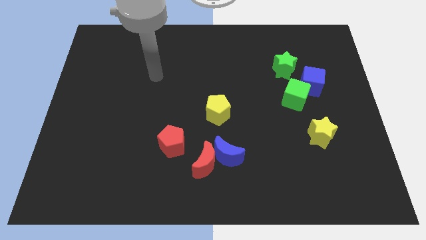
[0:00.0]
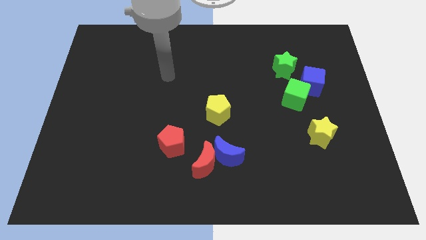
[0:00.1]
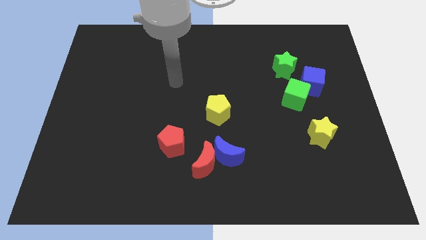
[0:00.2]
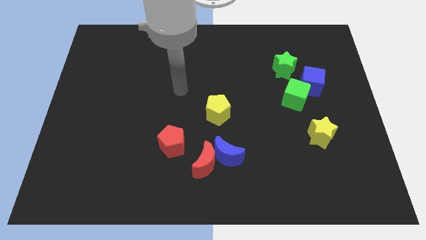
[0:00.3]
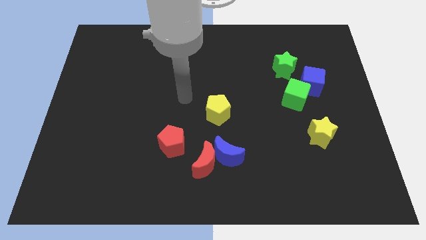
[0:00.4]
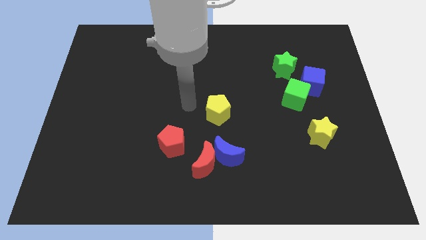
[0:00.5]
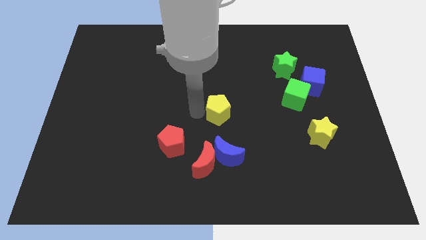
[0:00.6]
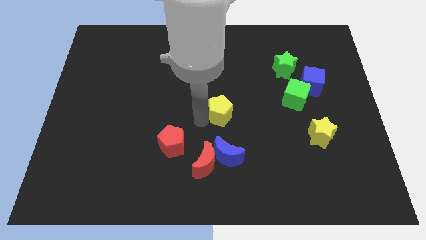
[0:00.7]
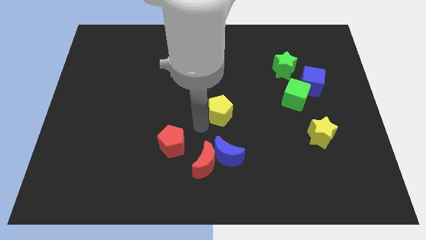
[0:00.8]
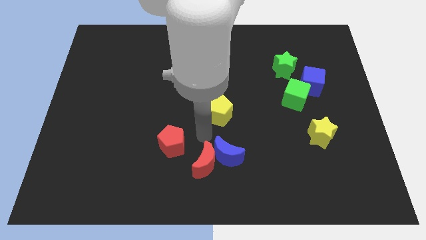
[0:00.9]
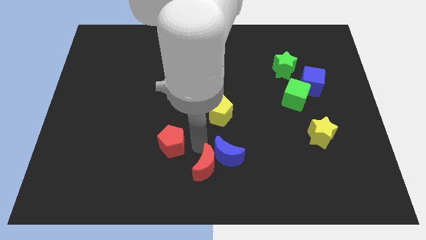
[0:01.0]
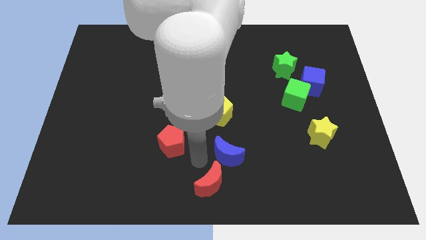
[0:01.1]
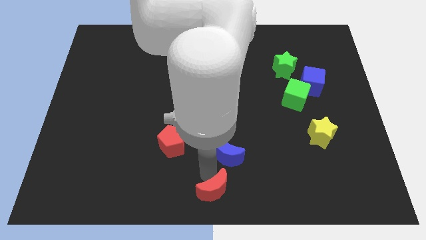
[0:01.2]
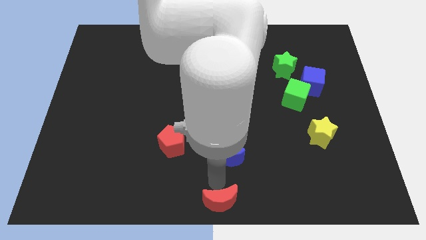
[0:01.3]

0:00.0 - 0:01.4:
move the blue moon away from the red moon

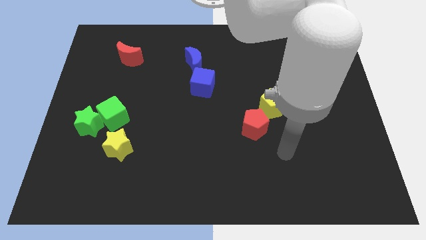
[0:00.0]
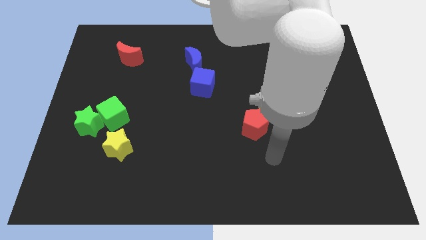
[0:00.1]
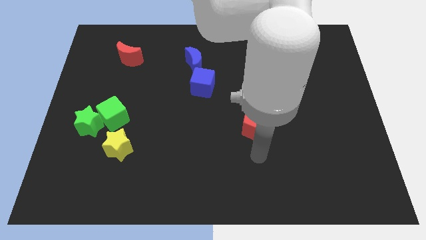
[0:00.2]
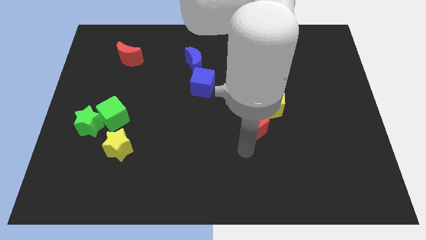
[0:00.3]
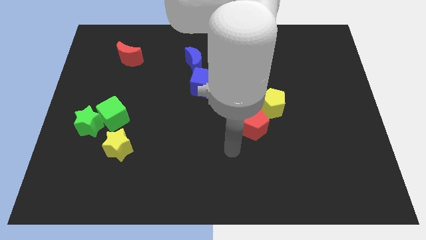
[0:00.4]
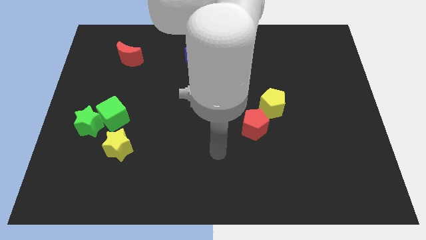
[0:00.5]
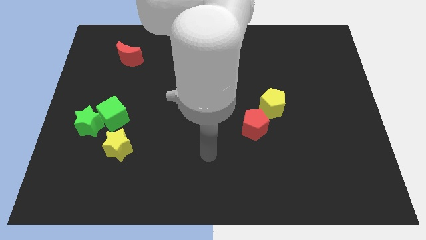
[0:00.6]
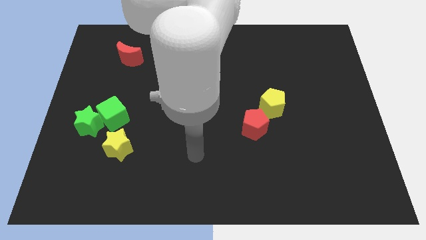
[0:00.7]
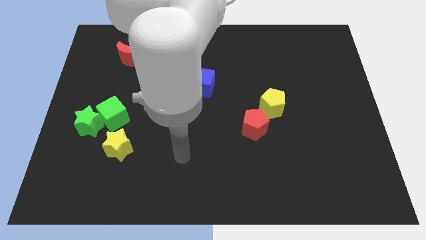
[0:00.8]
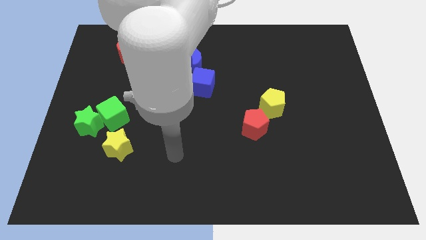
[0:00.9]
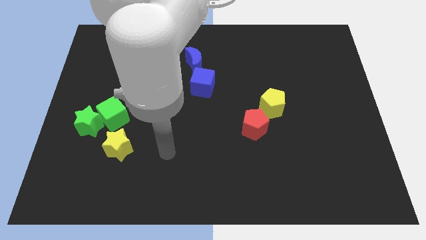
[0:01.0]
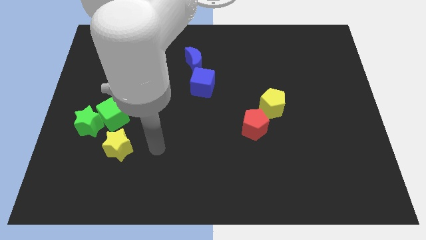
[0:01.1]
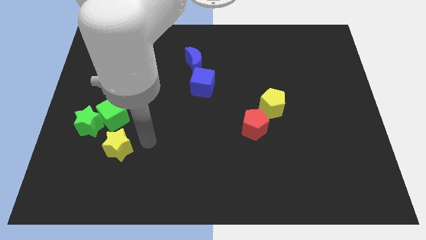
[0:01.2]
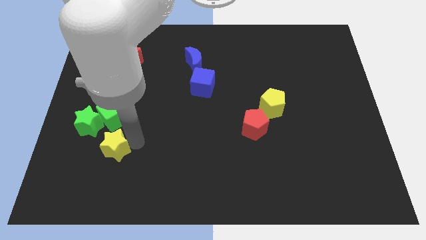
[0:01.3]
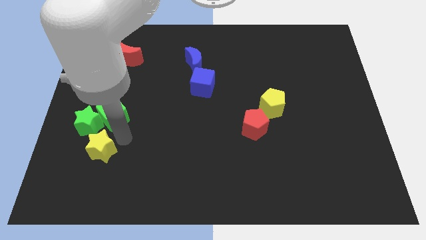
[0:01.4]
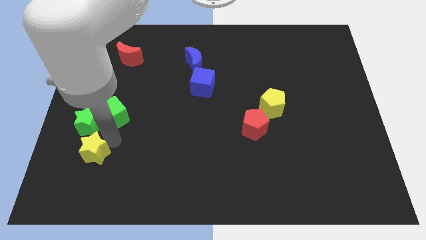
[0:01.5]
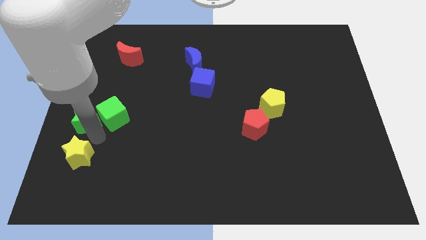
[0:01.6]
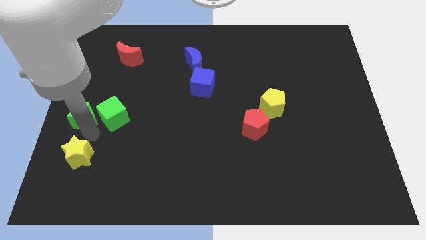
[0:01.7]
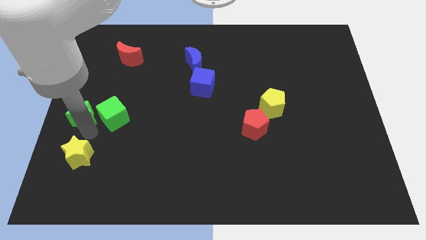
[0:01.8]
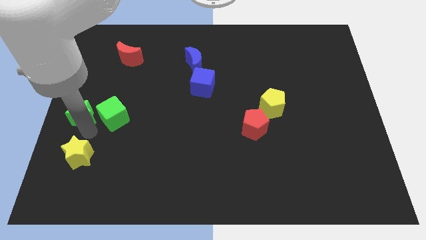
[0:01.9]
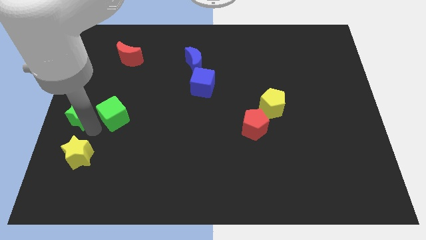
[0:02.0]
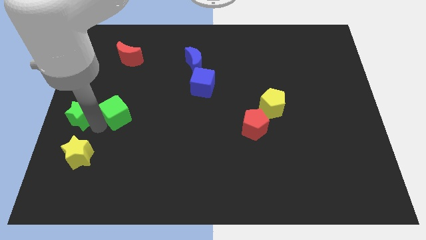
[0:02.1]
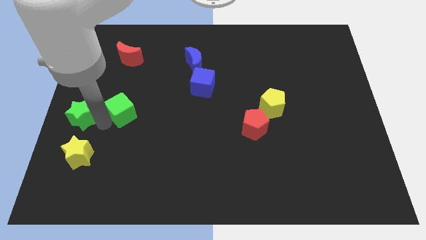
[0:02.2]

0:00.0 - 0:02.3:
pull the green cube apart from the green star and yellow star

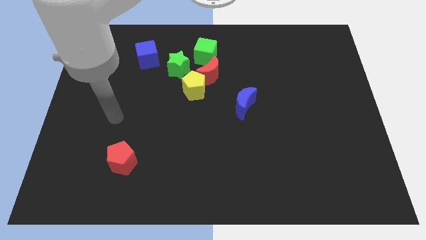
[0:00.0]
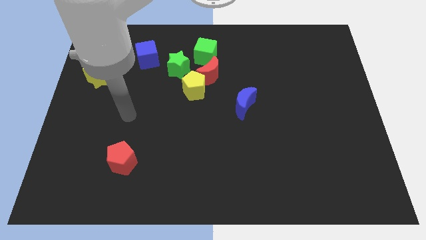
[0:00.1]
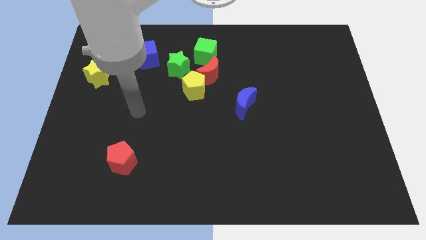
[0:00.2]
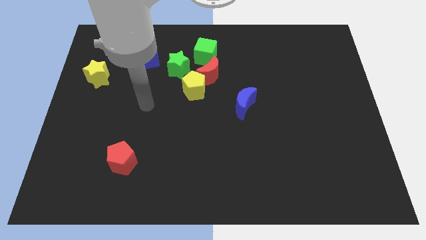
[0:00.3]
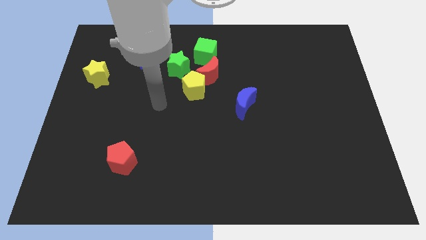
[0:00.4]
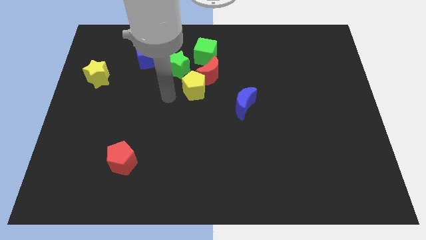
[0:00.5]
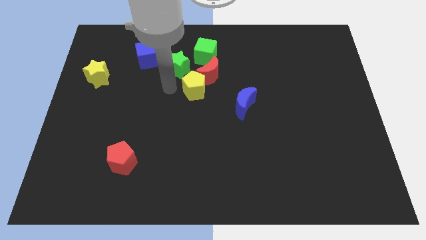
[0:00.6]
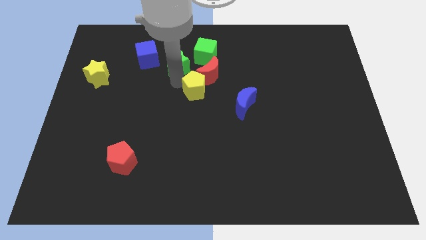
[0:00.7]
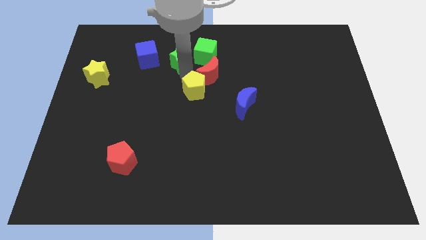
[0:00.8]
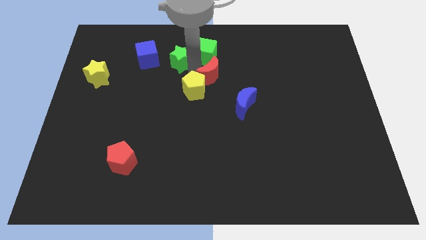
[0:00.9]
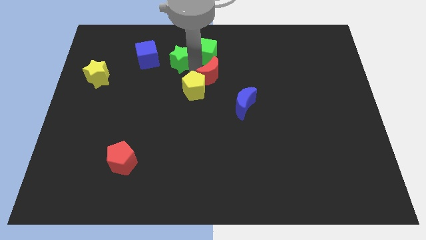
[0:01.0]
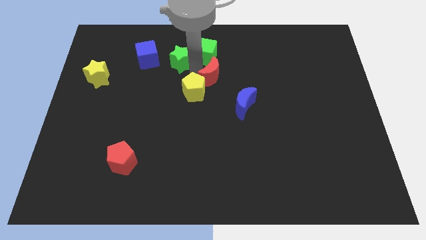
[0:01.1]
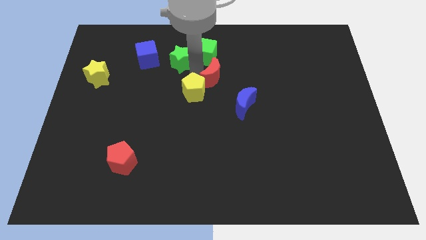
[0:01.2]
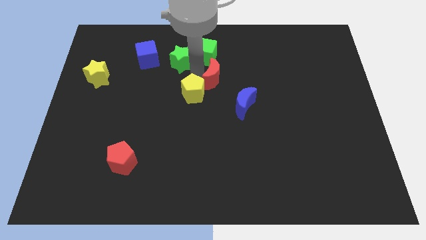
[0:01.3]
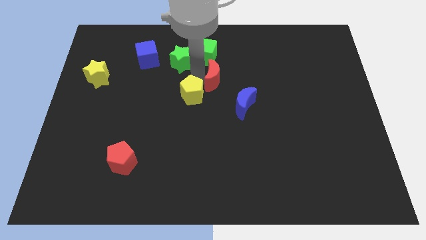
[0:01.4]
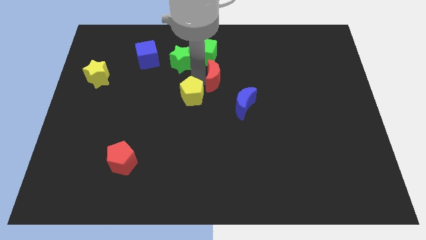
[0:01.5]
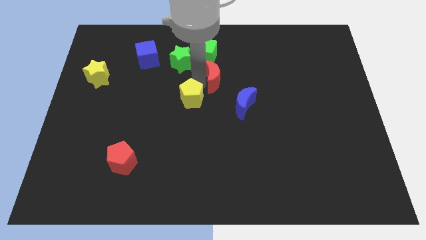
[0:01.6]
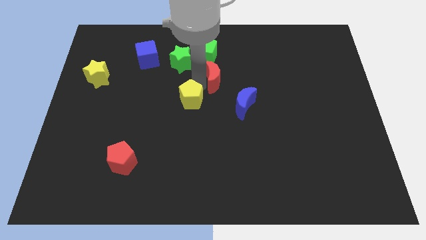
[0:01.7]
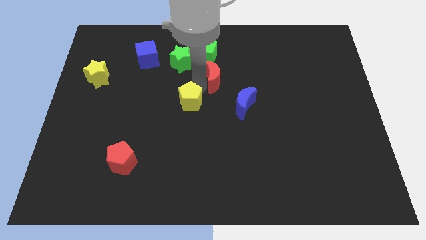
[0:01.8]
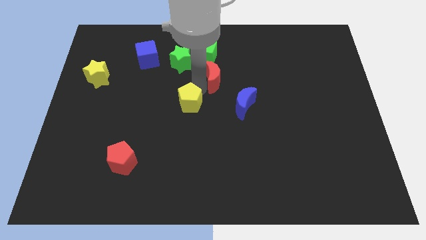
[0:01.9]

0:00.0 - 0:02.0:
pull the yellow pentagon apart from the red moon and green star

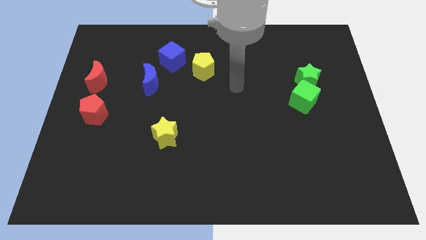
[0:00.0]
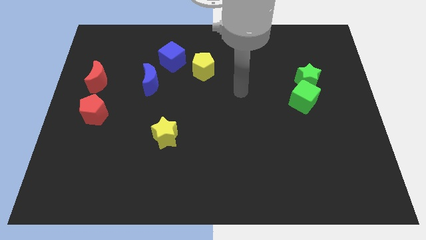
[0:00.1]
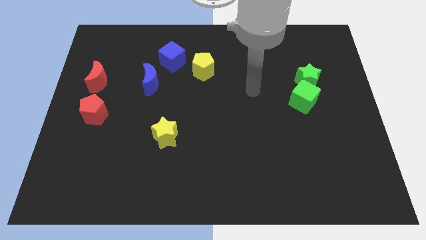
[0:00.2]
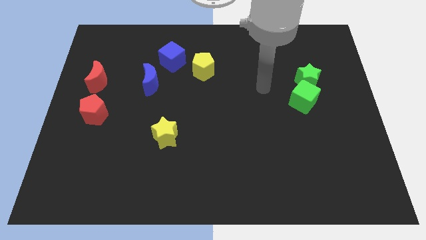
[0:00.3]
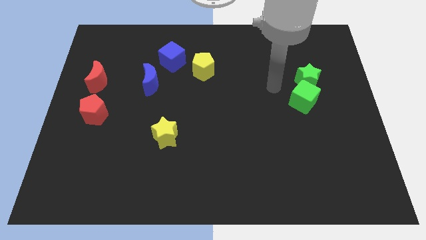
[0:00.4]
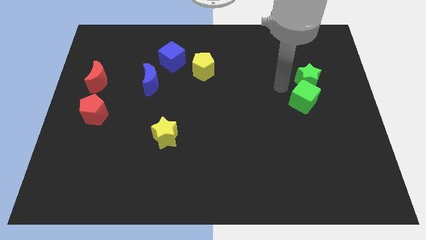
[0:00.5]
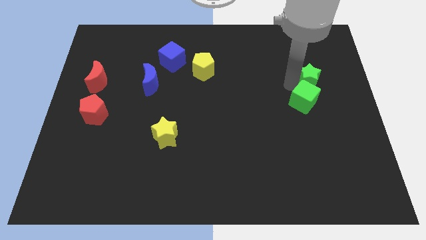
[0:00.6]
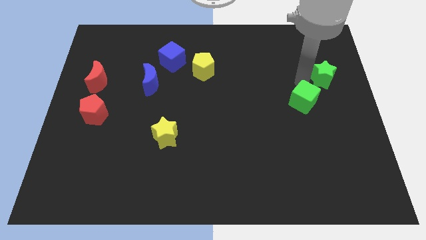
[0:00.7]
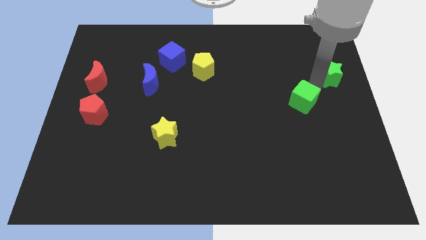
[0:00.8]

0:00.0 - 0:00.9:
separate the green cube from the green star

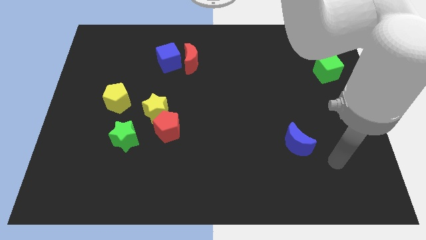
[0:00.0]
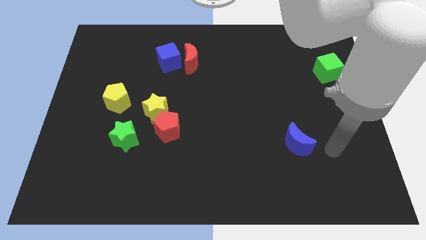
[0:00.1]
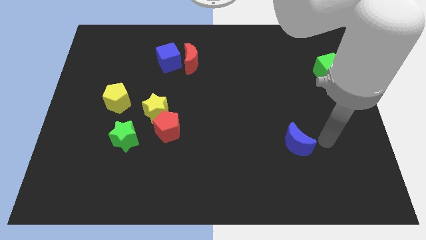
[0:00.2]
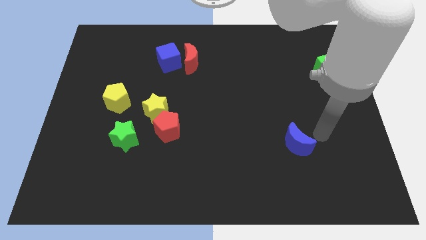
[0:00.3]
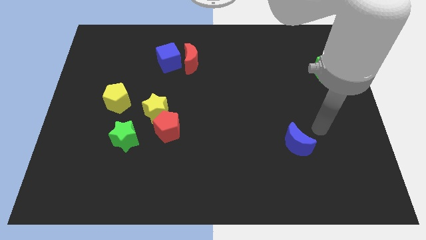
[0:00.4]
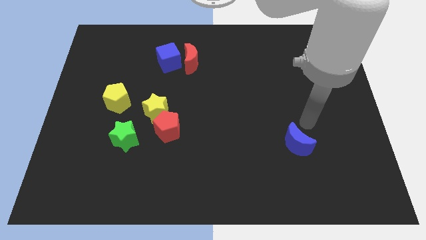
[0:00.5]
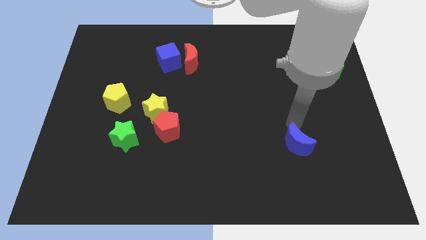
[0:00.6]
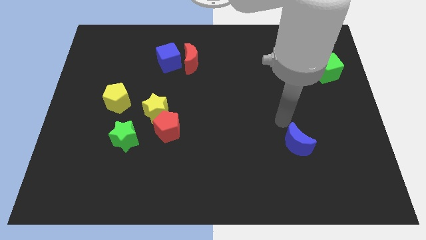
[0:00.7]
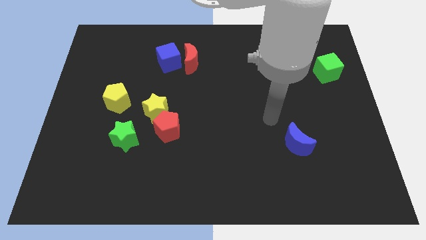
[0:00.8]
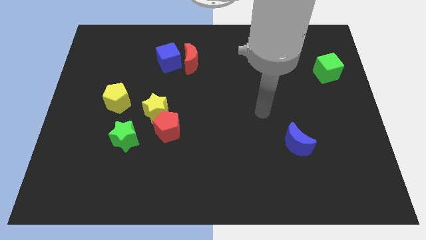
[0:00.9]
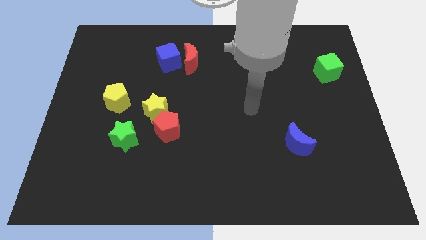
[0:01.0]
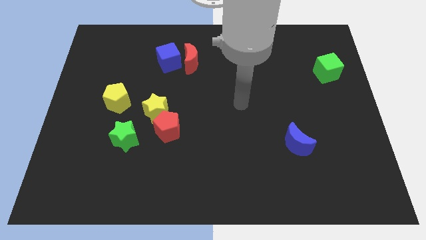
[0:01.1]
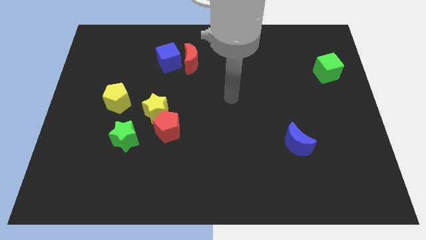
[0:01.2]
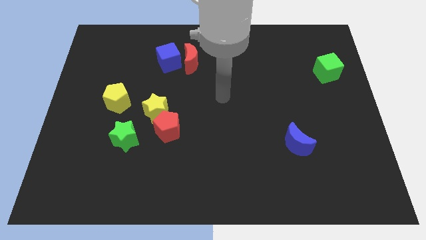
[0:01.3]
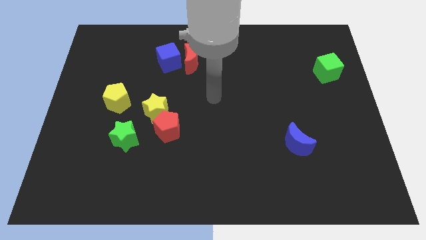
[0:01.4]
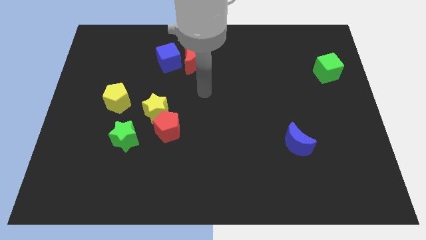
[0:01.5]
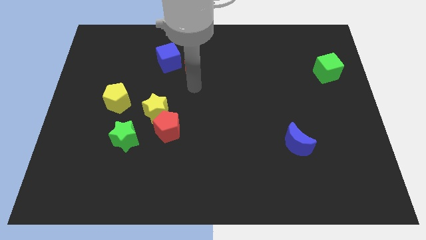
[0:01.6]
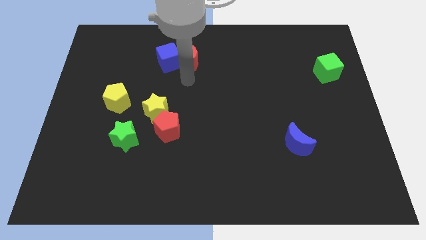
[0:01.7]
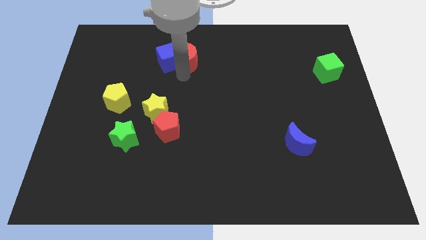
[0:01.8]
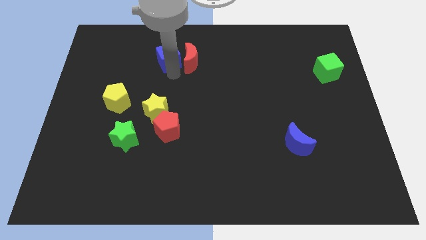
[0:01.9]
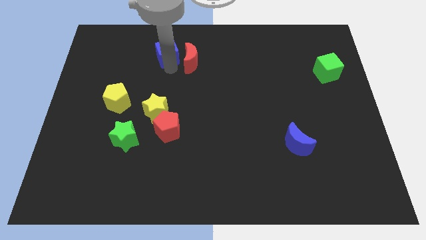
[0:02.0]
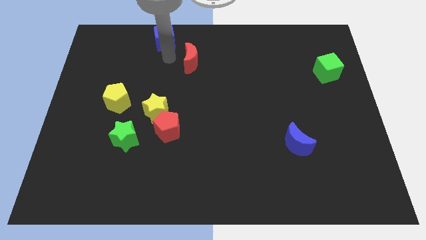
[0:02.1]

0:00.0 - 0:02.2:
move the red moon away from the blue cube

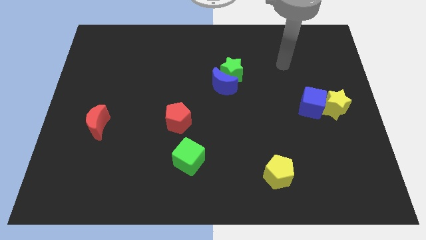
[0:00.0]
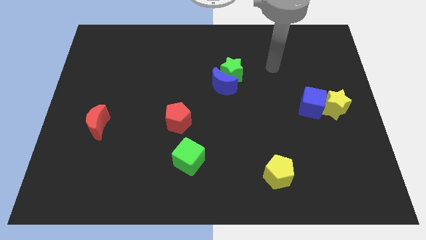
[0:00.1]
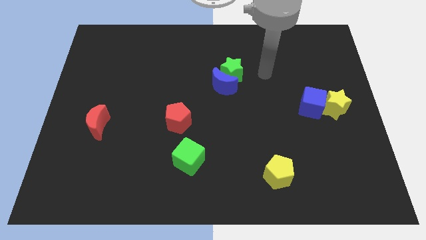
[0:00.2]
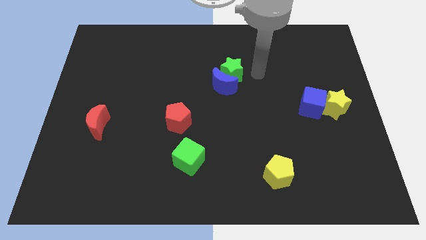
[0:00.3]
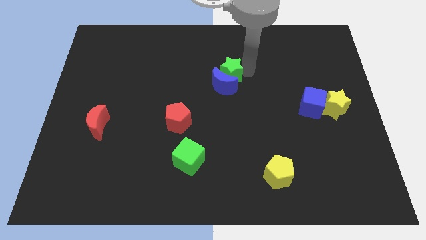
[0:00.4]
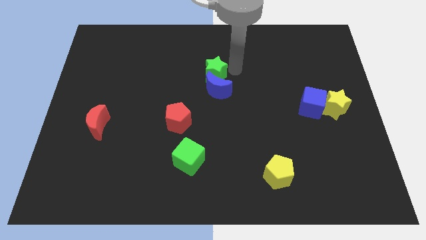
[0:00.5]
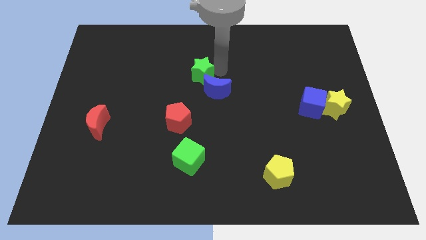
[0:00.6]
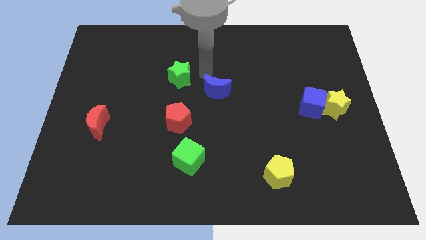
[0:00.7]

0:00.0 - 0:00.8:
pull the blue moon apart from the green star
